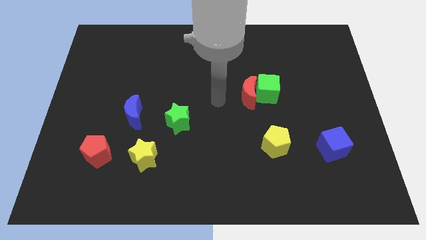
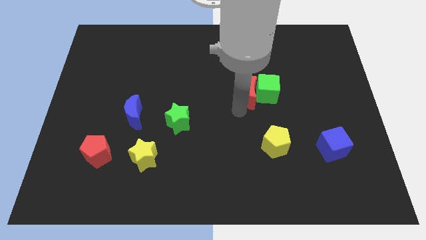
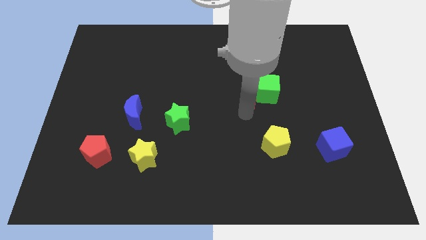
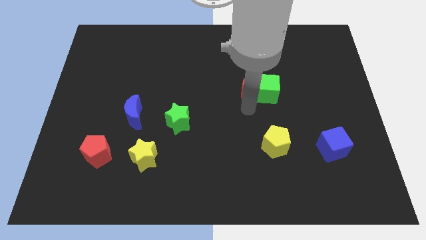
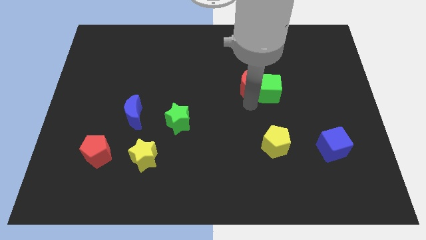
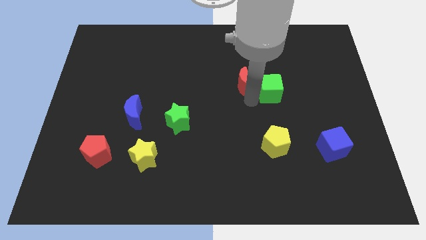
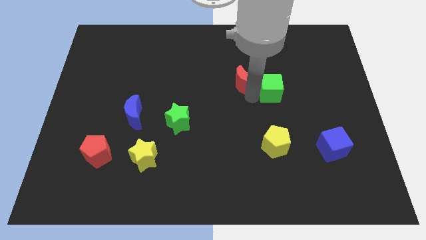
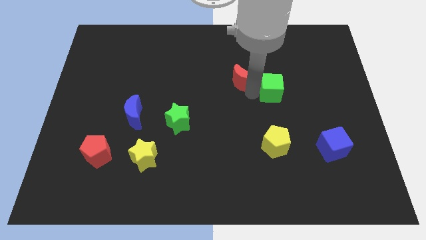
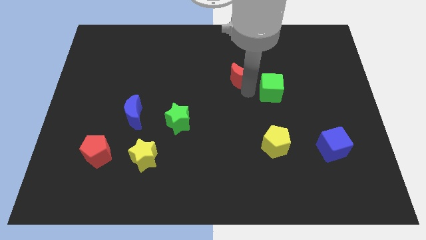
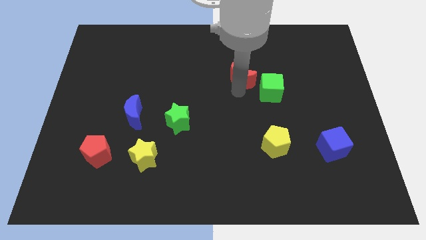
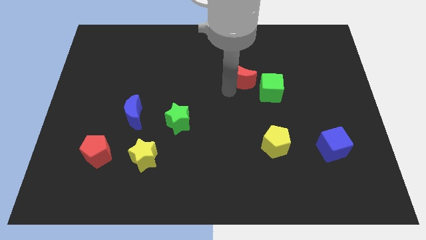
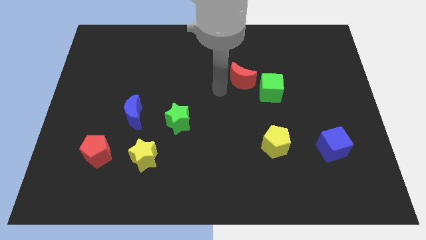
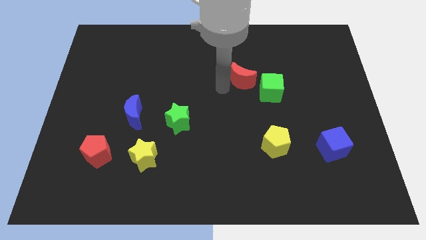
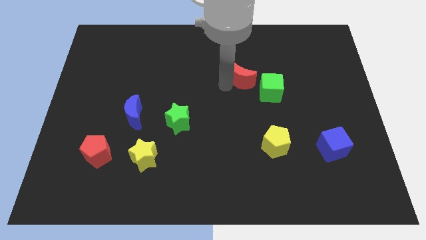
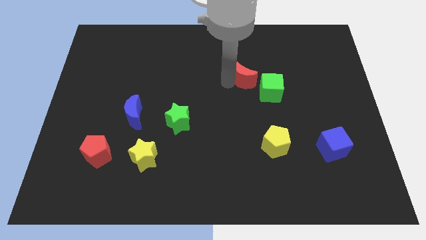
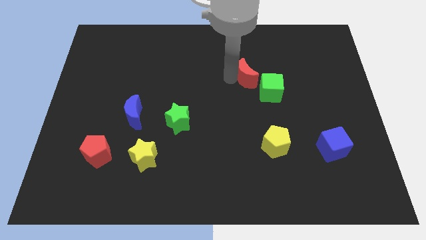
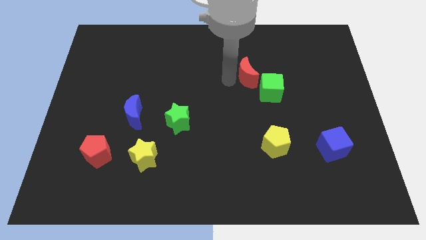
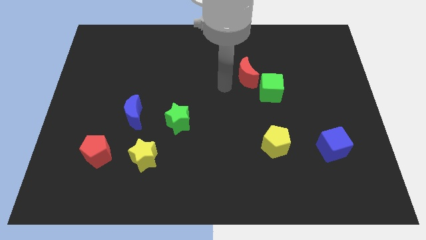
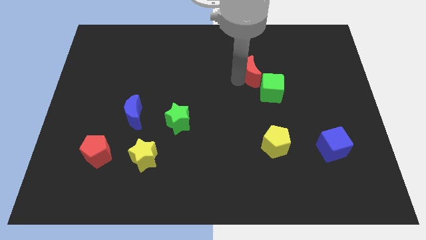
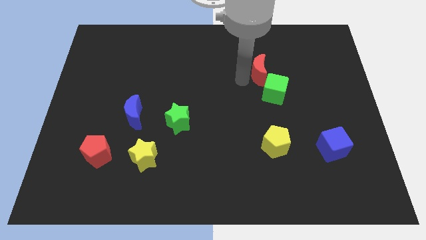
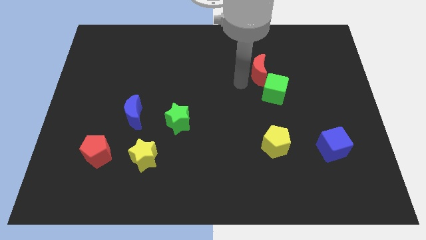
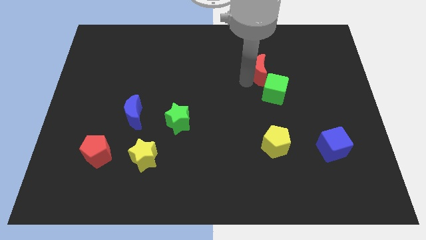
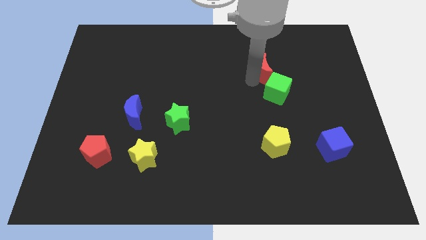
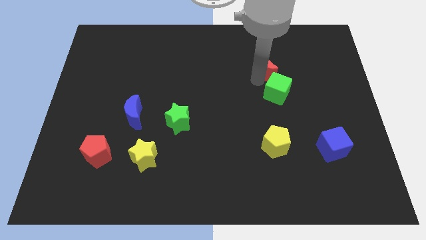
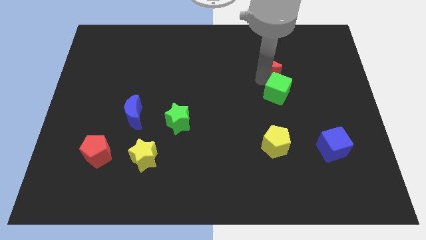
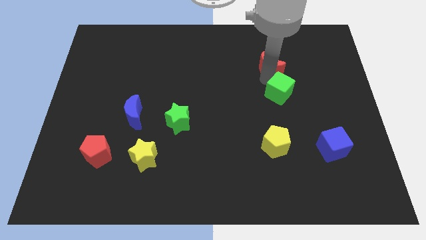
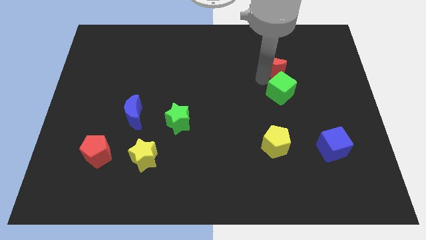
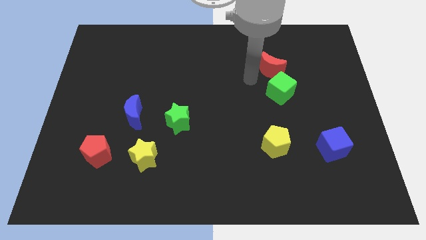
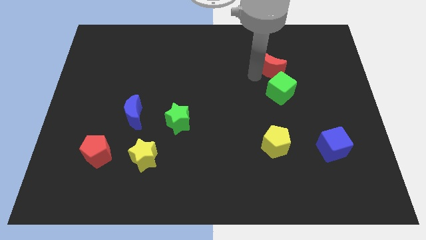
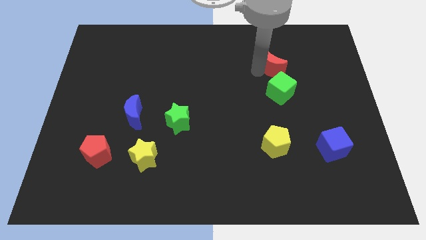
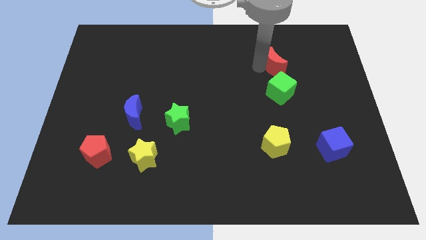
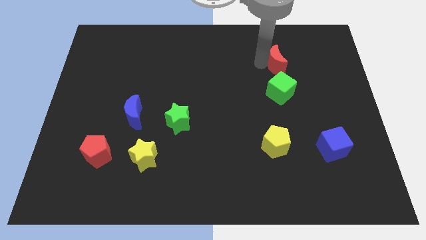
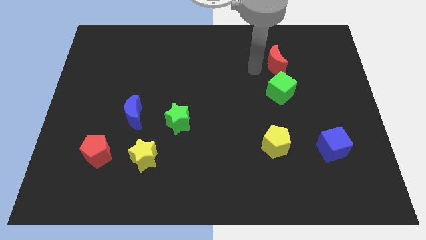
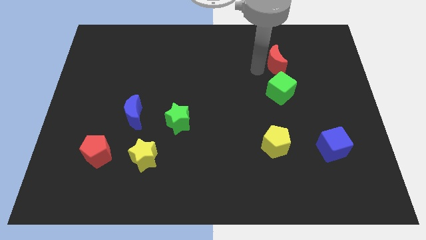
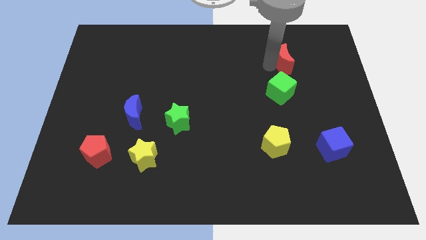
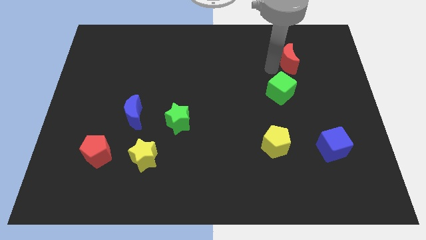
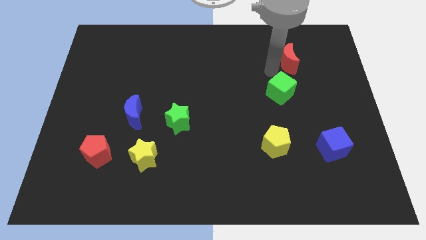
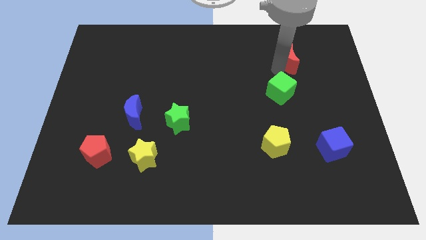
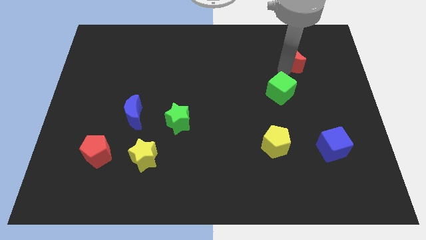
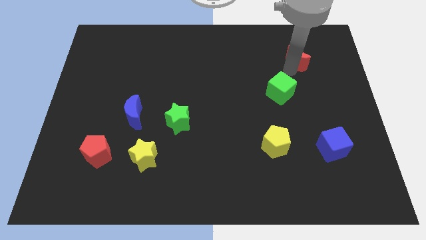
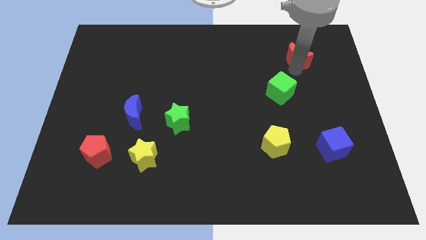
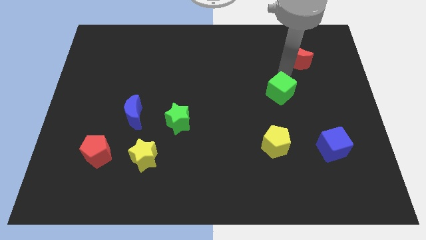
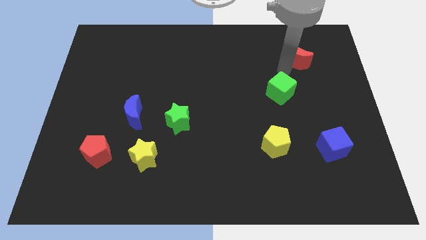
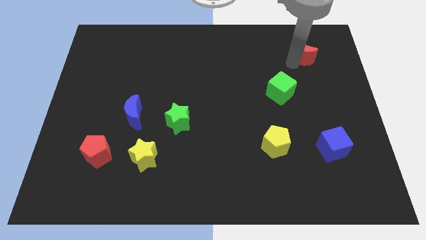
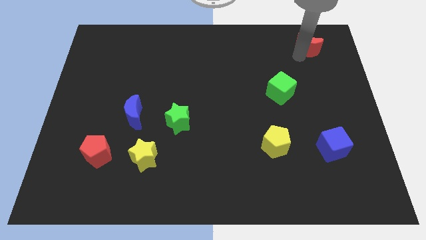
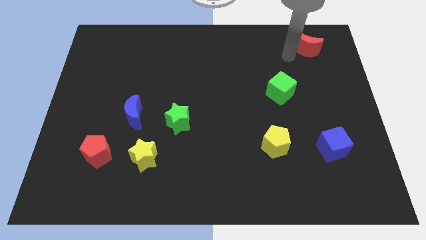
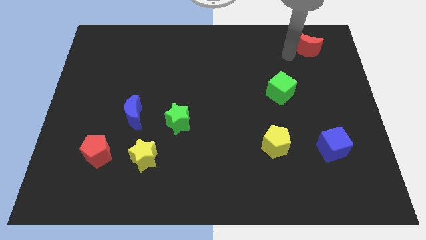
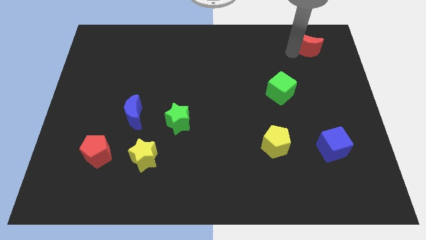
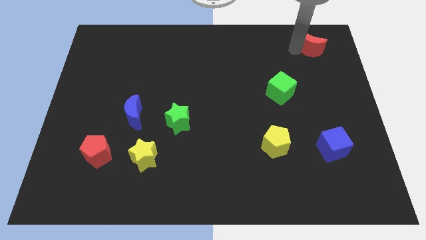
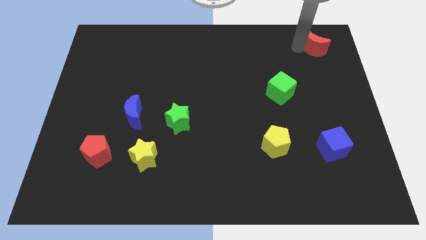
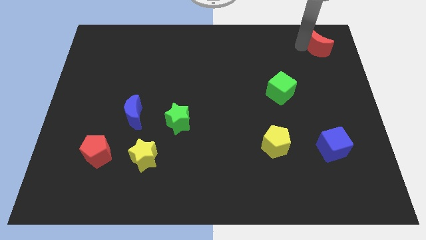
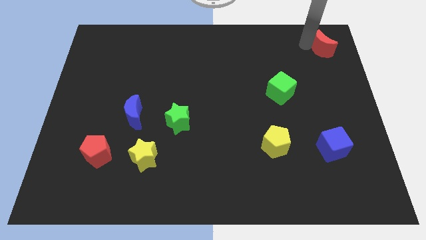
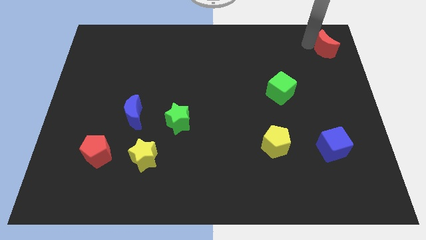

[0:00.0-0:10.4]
push the red moon to the top right corner
